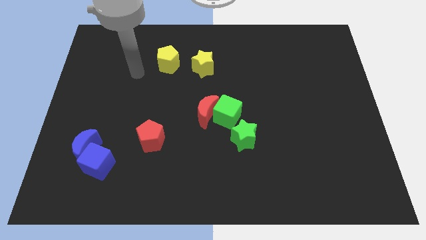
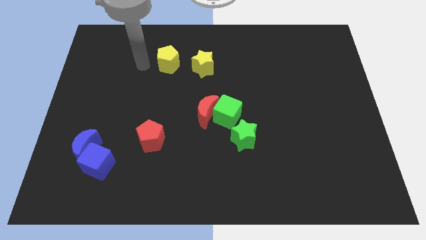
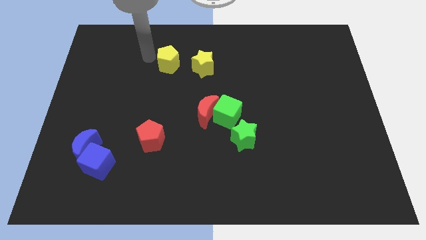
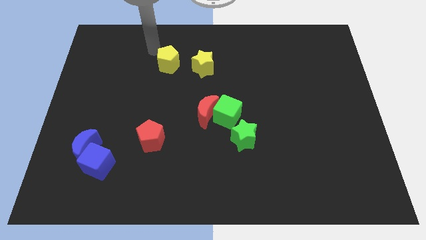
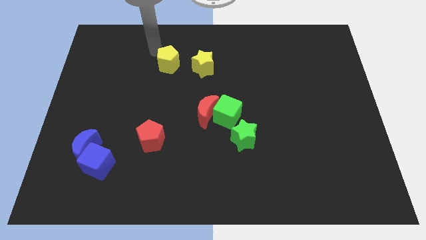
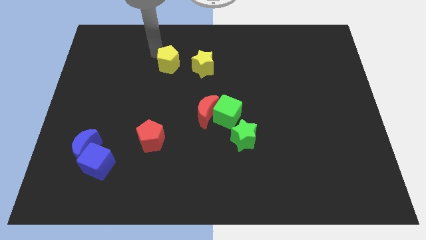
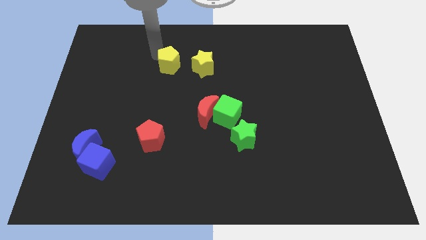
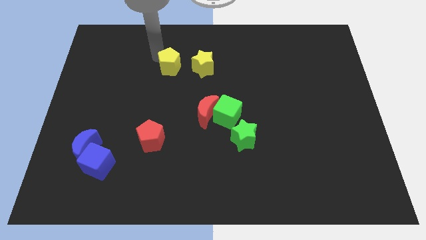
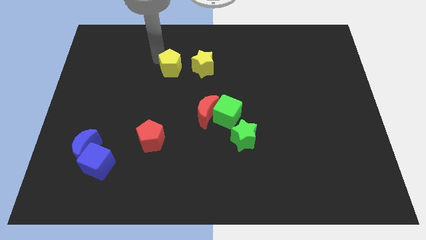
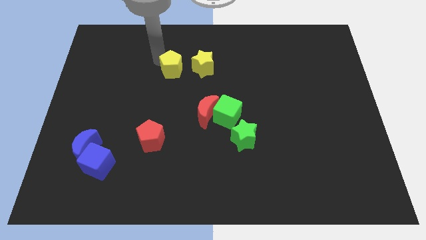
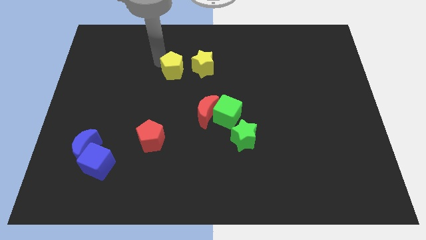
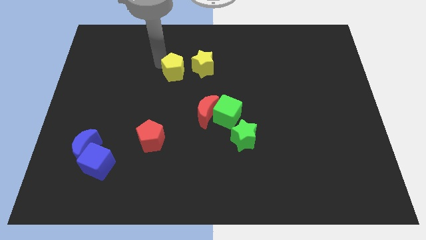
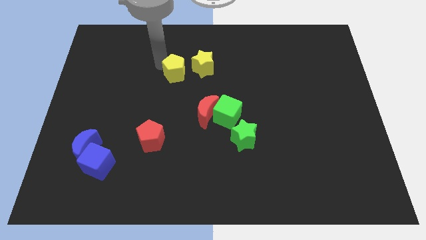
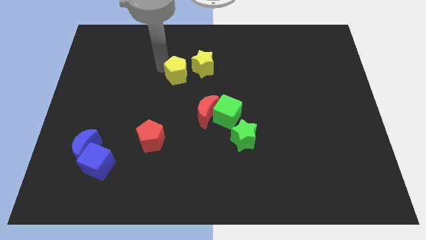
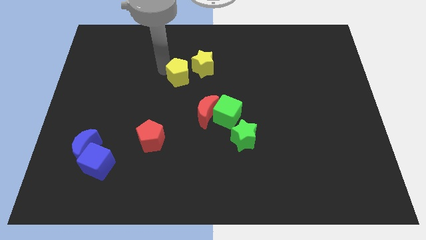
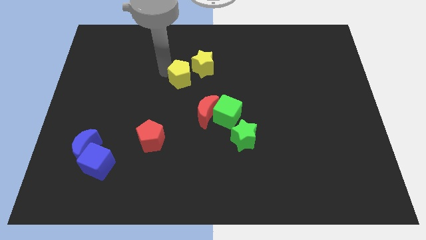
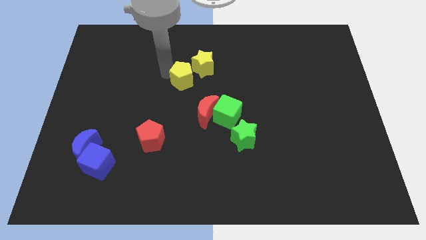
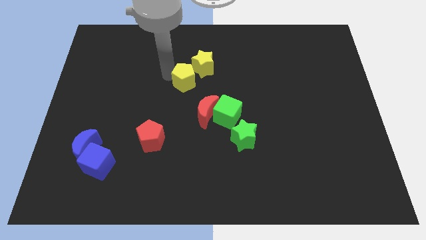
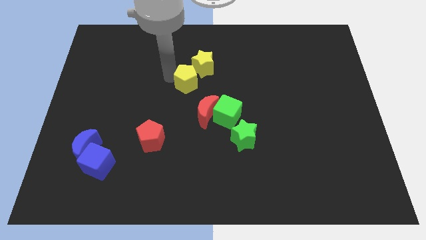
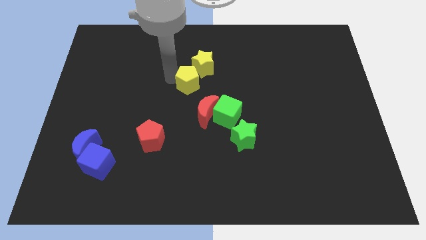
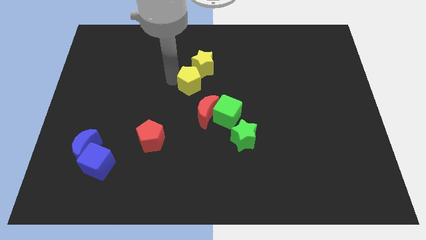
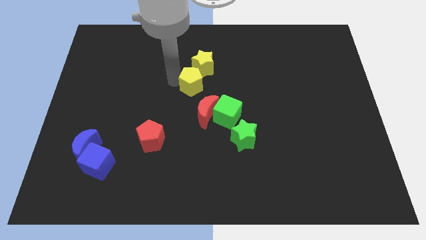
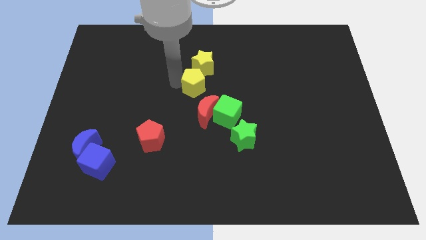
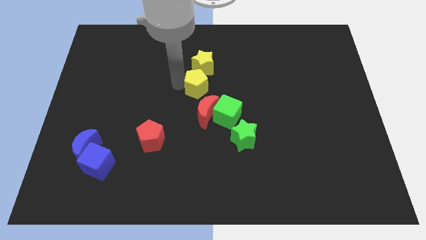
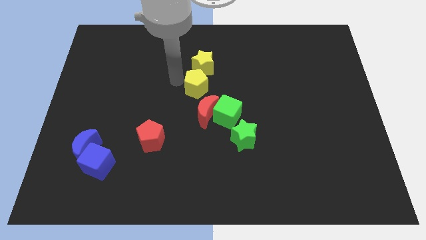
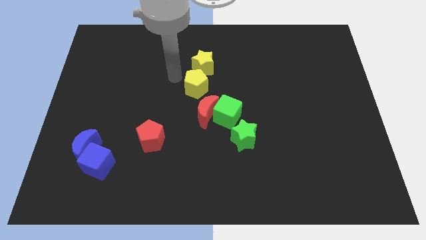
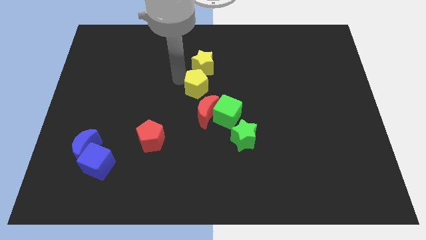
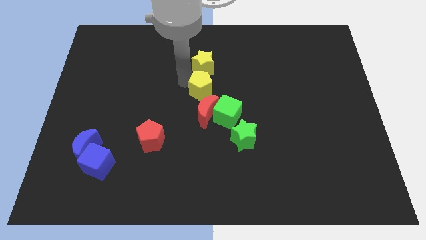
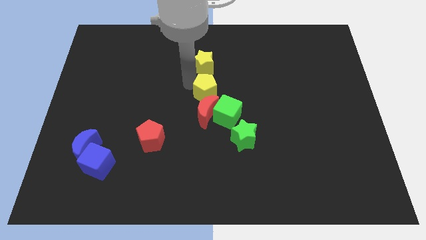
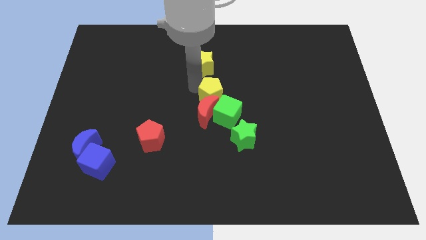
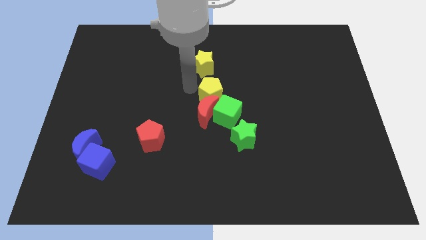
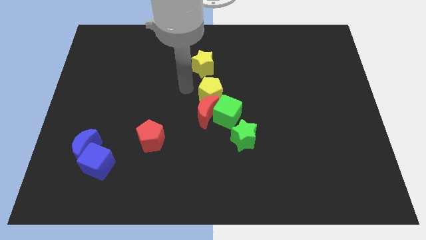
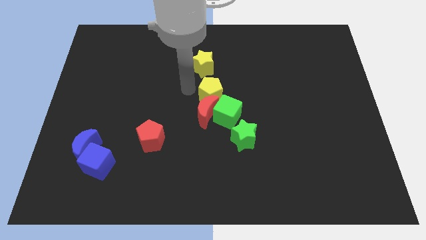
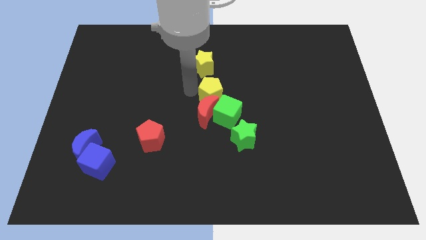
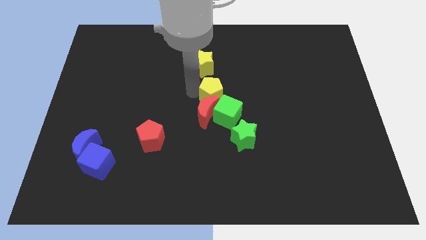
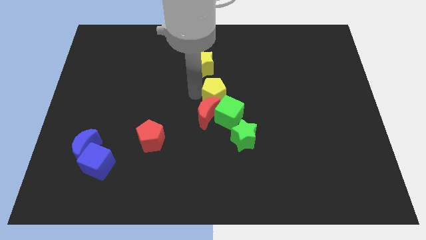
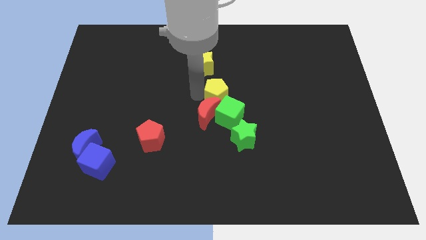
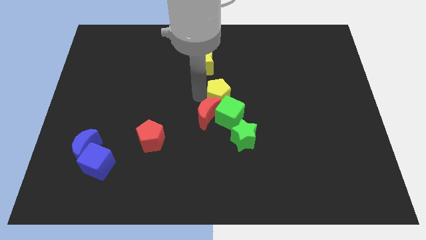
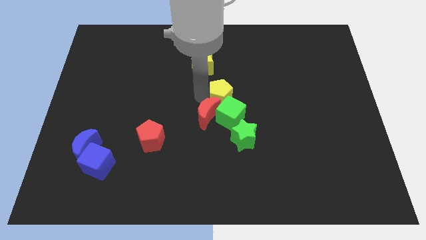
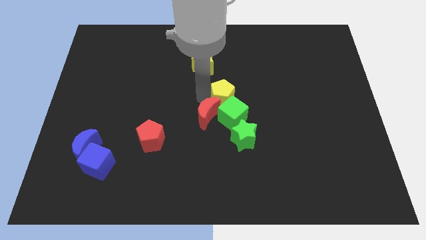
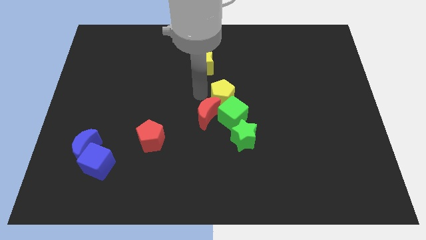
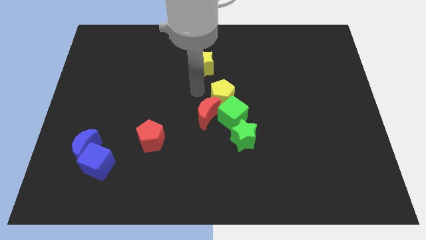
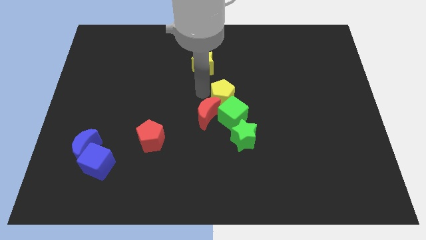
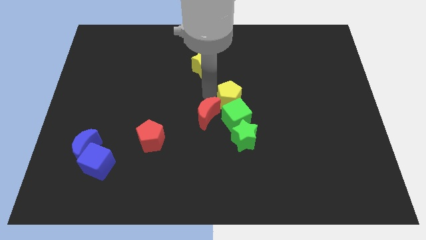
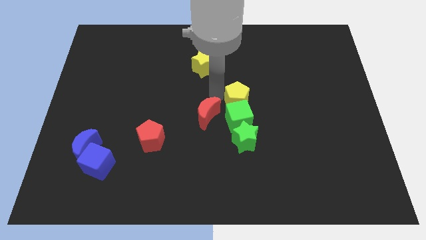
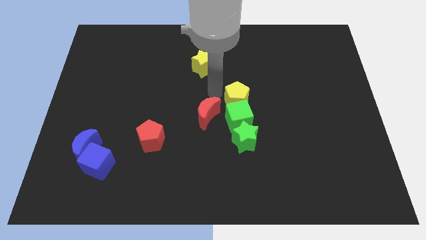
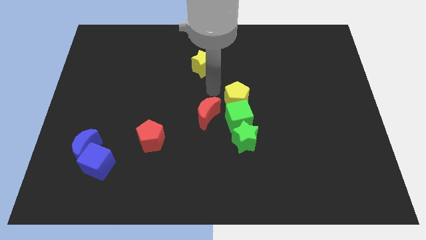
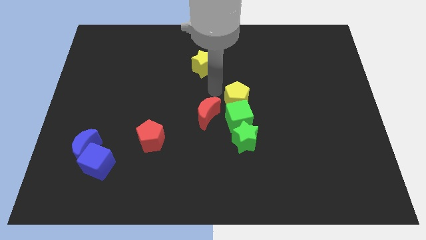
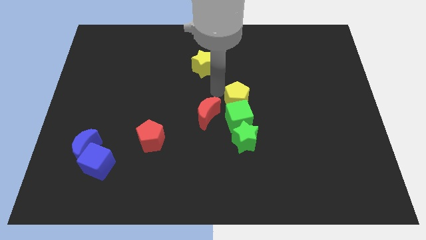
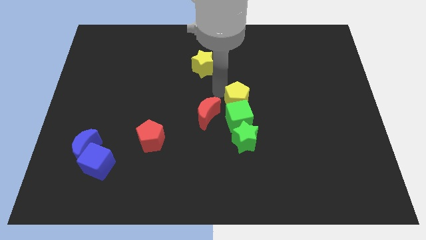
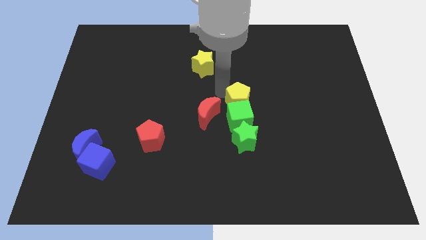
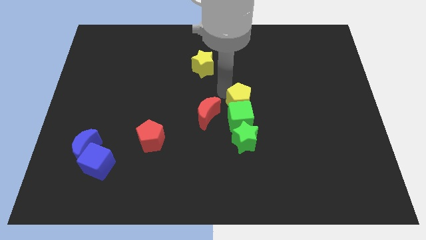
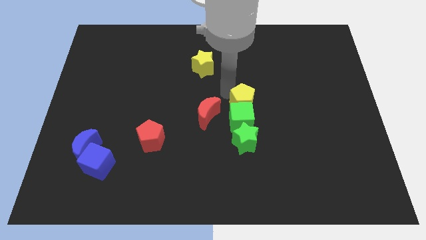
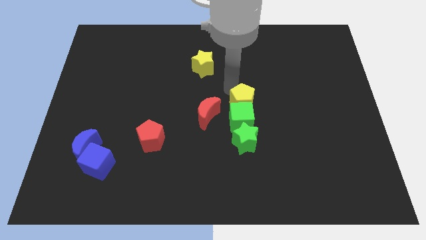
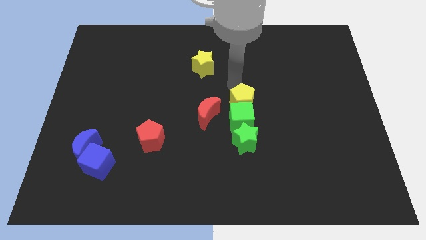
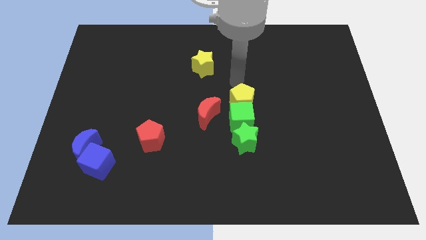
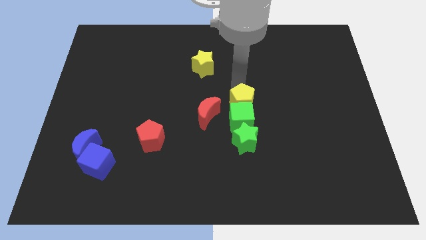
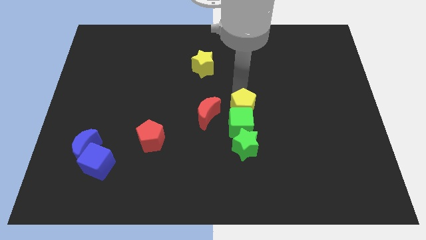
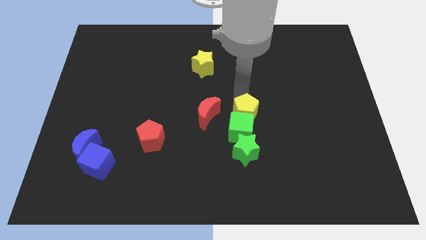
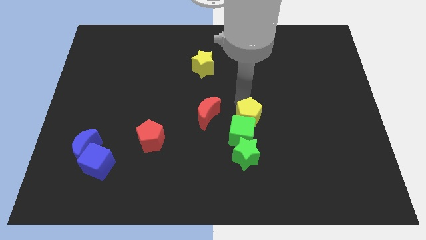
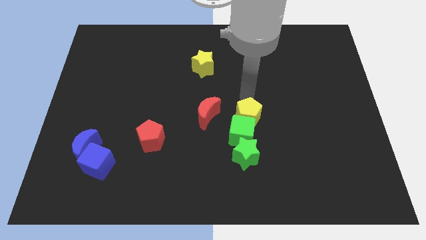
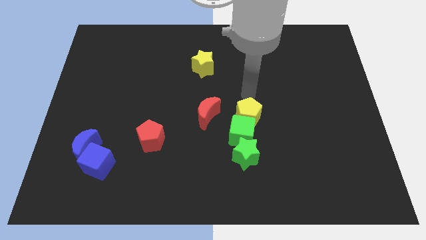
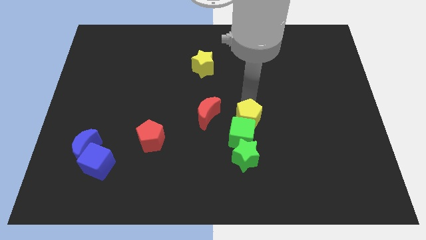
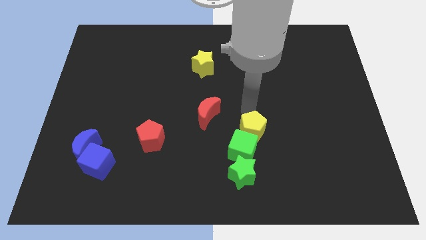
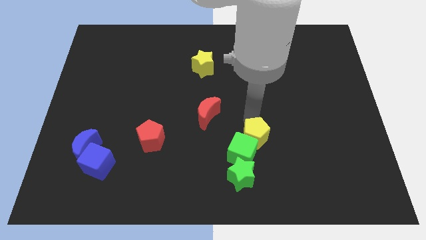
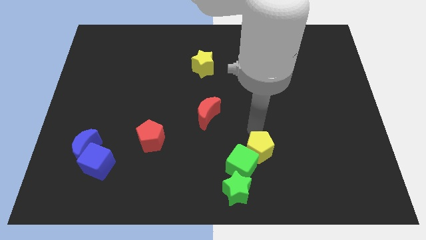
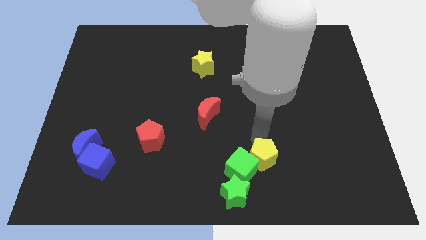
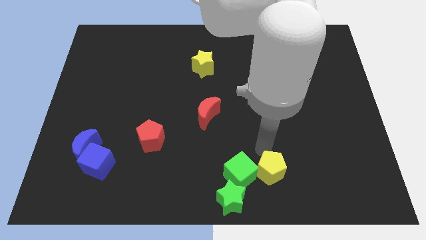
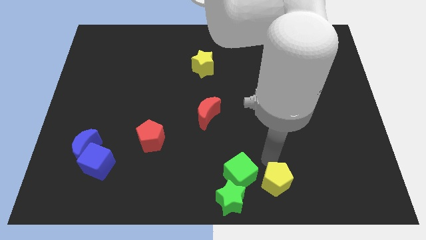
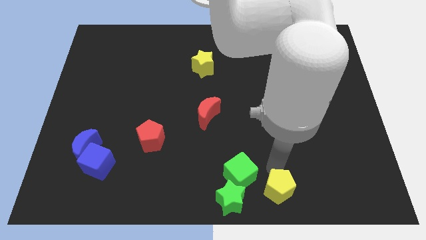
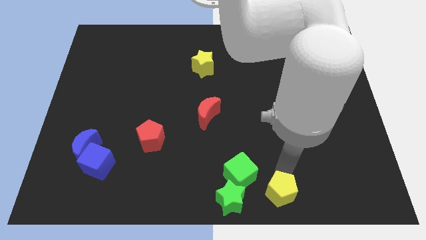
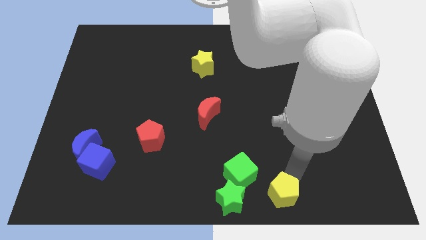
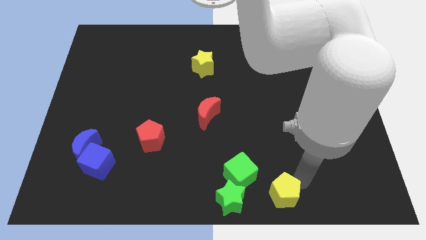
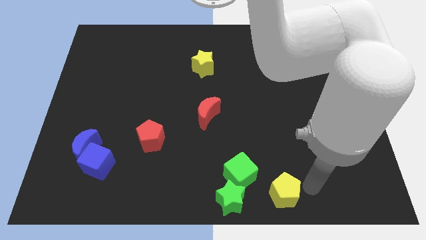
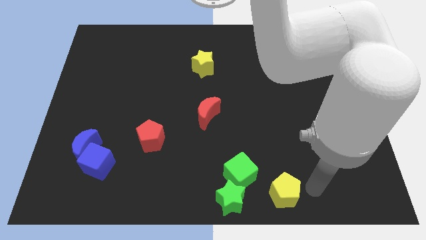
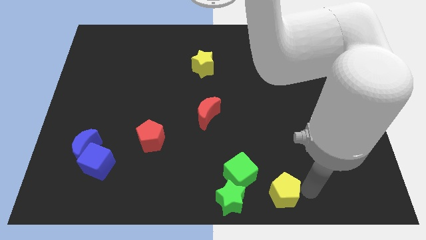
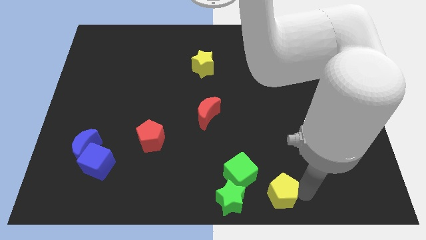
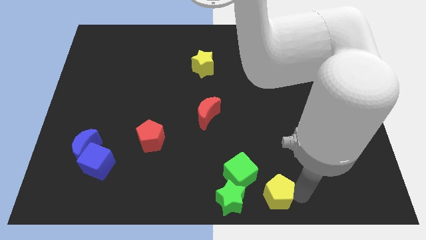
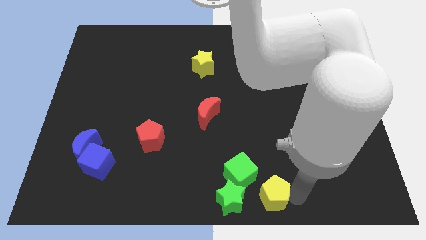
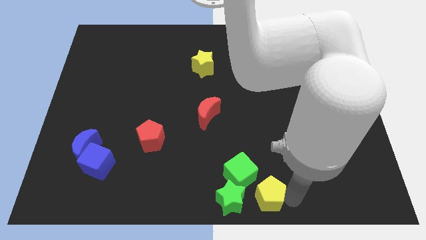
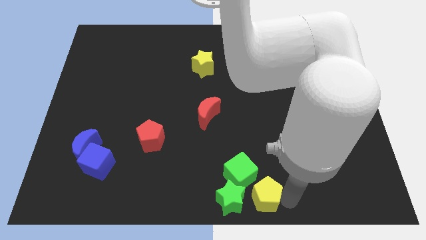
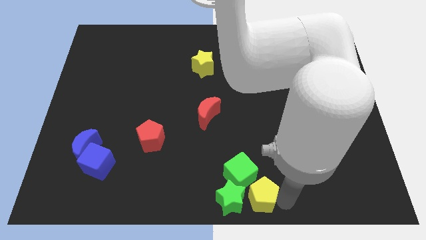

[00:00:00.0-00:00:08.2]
push the yellow pentagon to the green star
